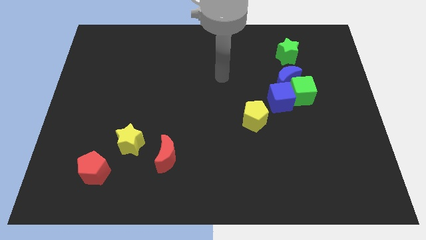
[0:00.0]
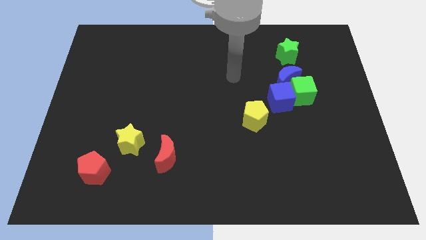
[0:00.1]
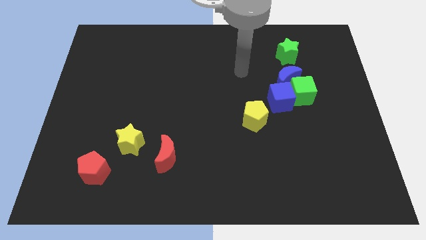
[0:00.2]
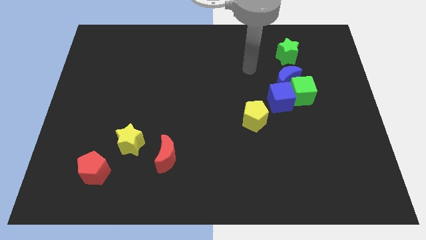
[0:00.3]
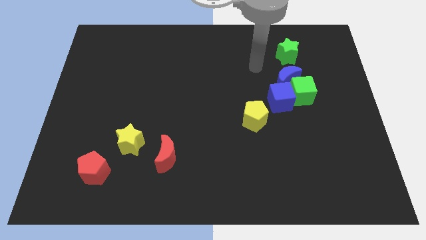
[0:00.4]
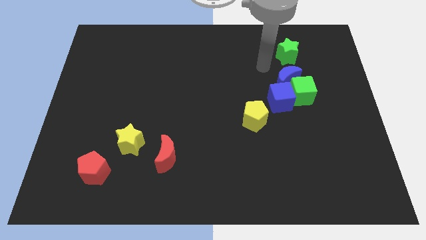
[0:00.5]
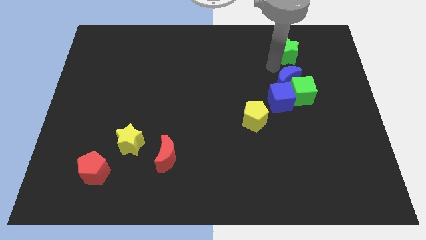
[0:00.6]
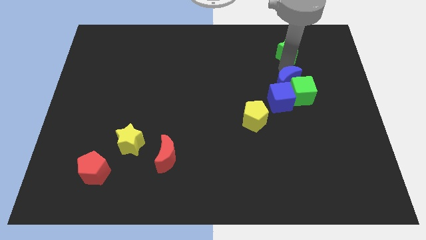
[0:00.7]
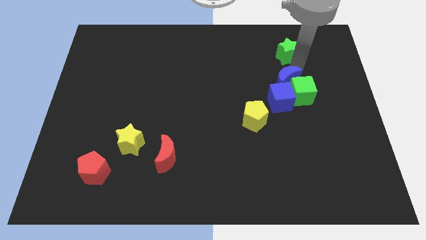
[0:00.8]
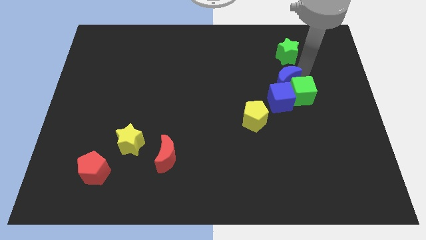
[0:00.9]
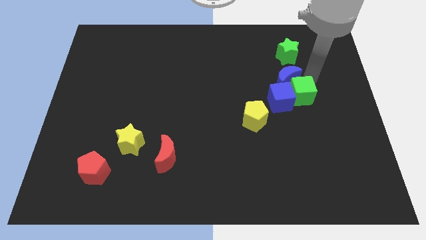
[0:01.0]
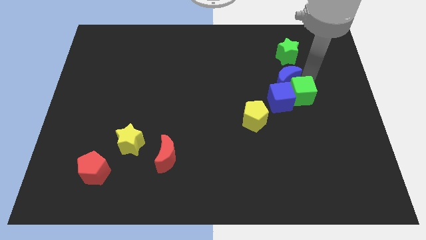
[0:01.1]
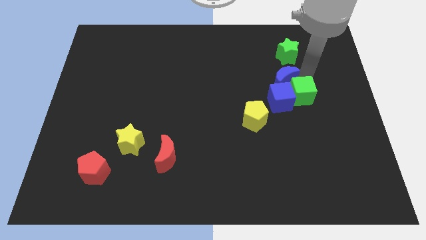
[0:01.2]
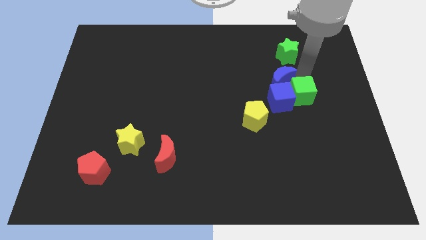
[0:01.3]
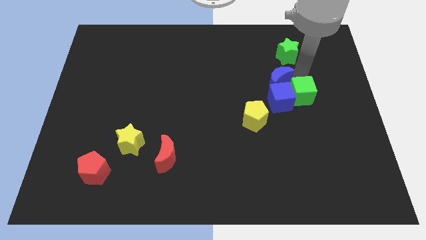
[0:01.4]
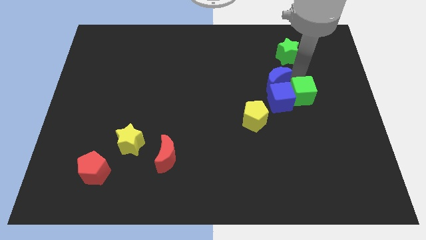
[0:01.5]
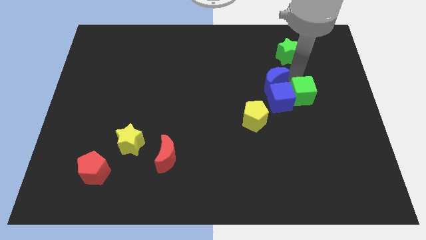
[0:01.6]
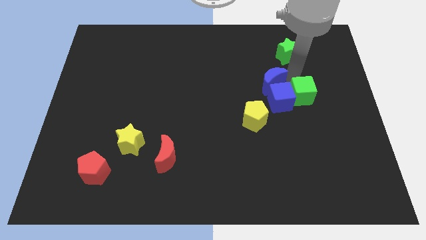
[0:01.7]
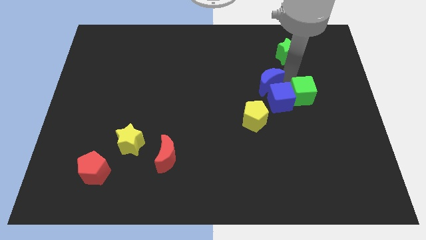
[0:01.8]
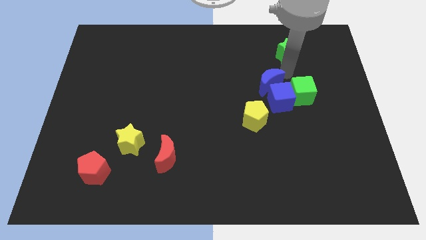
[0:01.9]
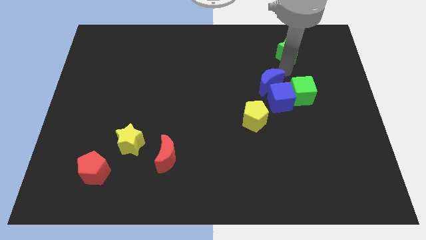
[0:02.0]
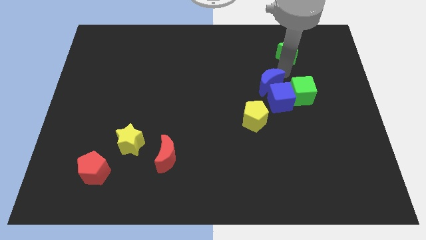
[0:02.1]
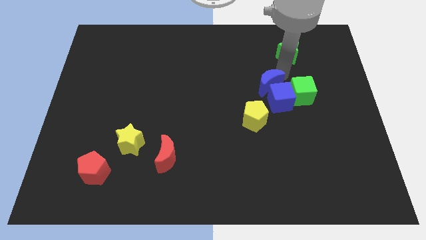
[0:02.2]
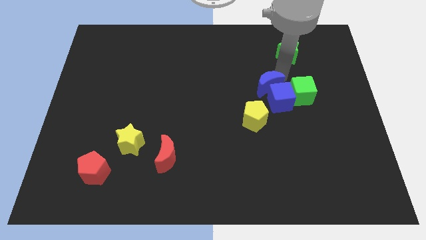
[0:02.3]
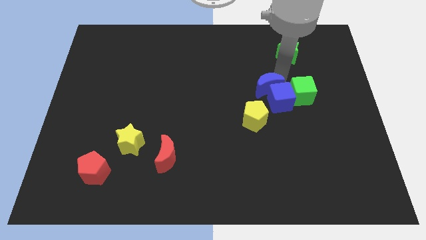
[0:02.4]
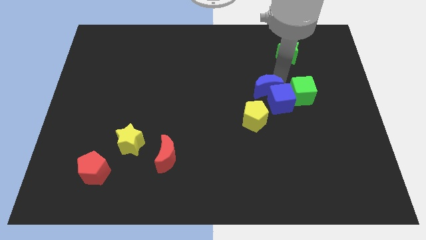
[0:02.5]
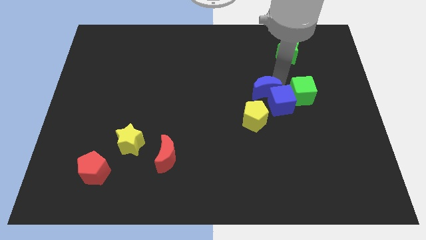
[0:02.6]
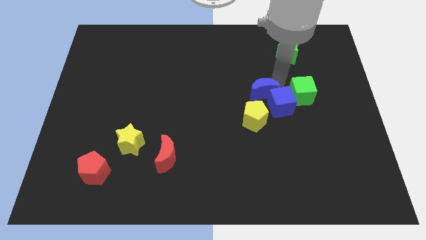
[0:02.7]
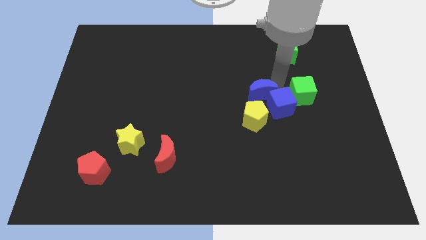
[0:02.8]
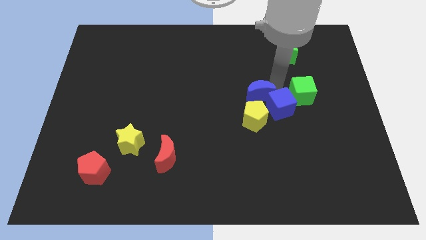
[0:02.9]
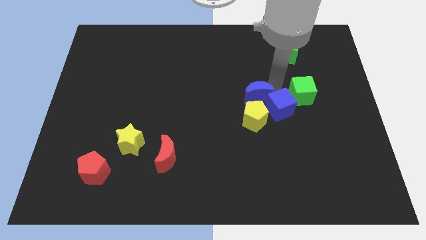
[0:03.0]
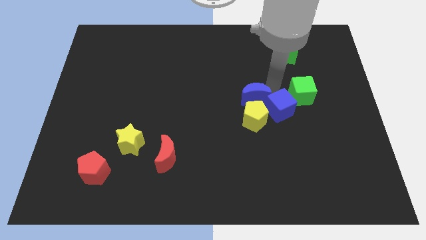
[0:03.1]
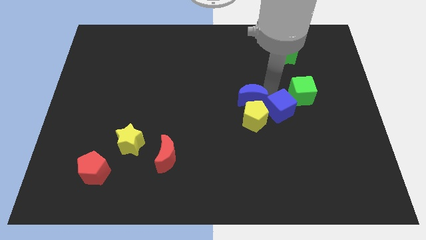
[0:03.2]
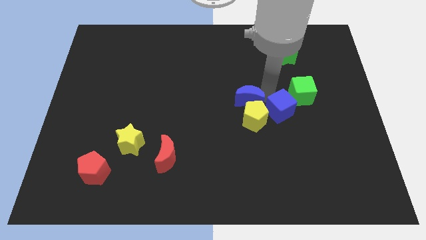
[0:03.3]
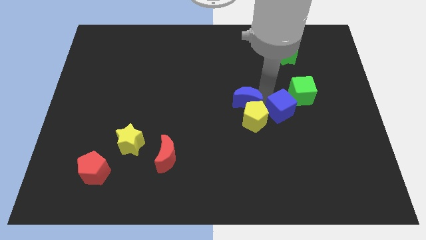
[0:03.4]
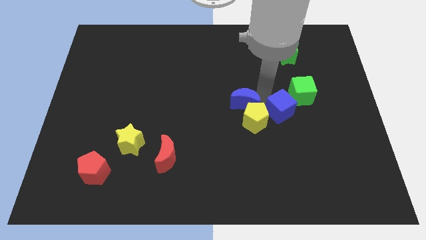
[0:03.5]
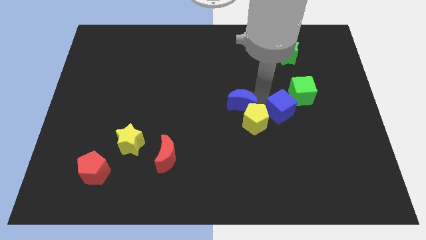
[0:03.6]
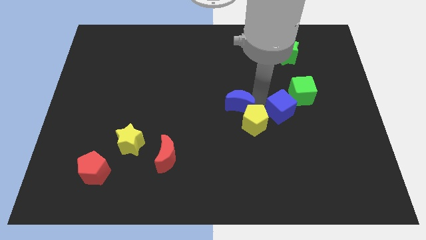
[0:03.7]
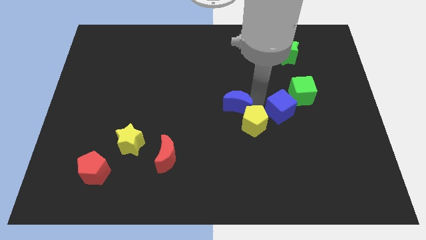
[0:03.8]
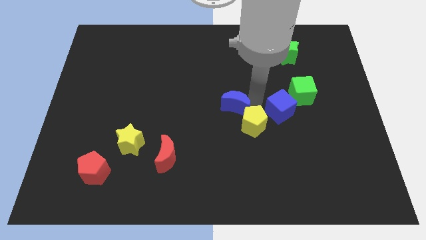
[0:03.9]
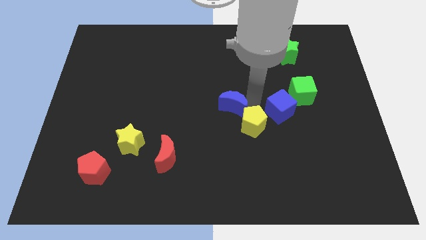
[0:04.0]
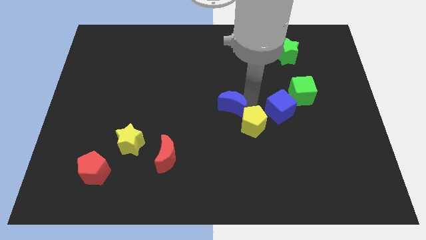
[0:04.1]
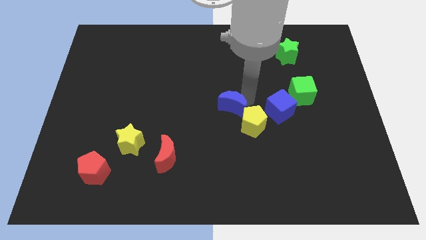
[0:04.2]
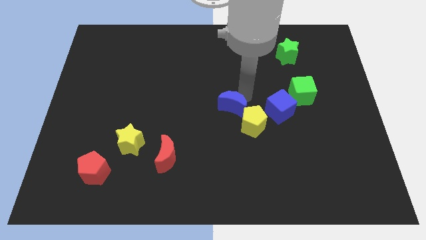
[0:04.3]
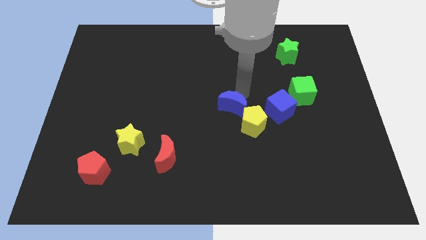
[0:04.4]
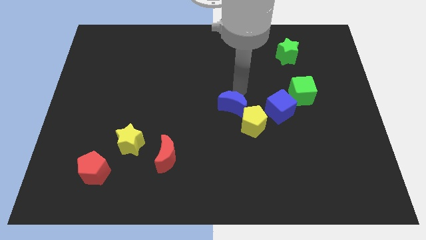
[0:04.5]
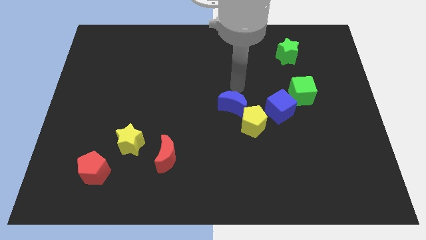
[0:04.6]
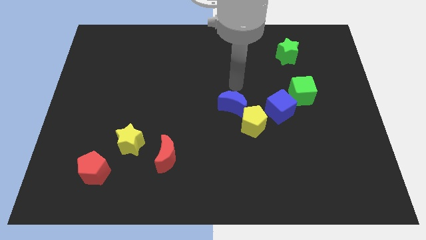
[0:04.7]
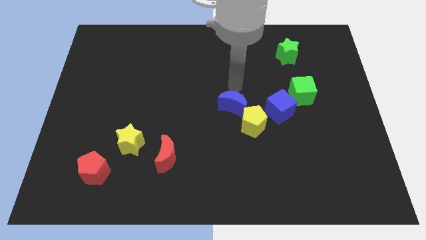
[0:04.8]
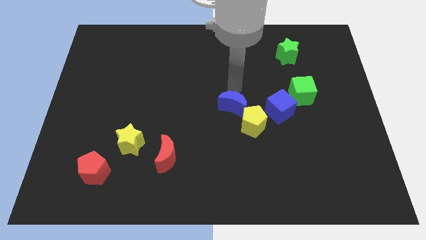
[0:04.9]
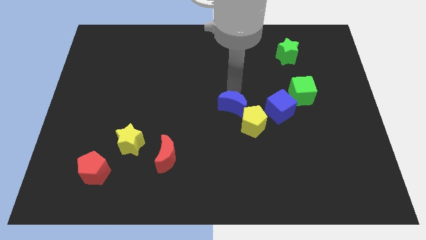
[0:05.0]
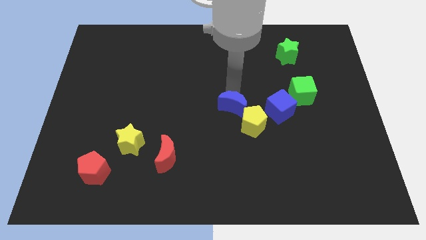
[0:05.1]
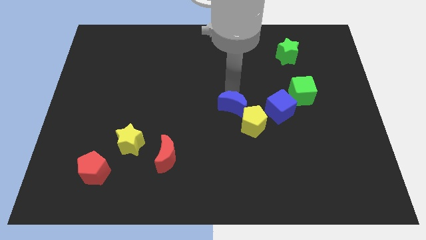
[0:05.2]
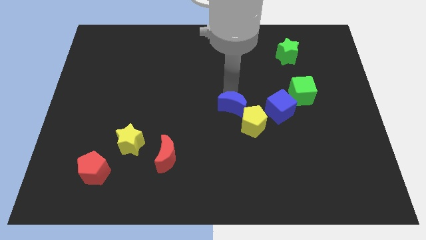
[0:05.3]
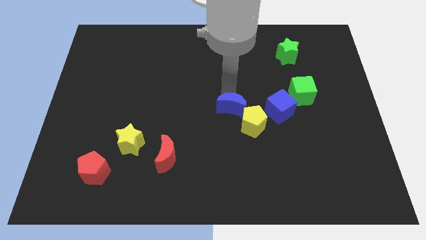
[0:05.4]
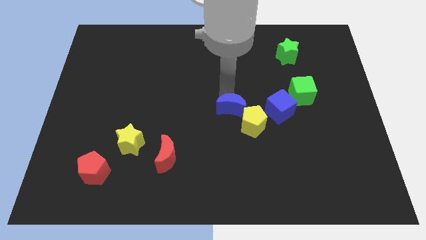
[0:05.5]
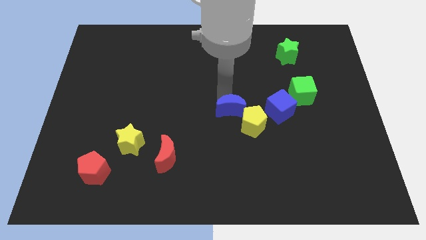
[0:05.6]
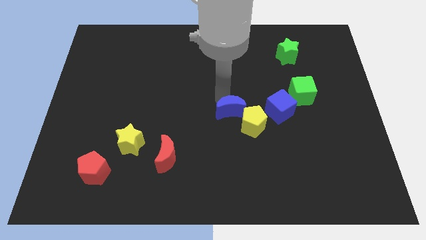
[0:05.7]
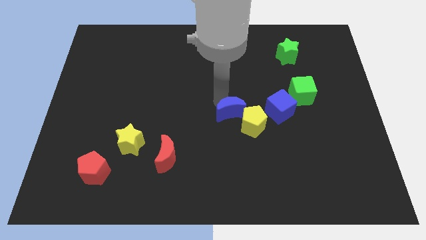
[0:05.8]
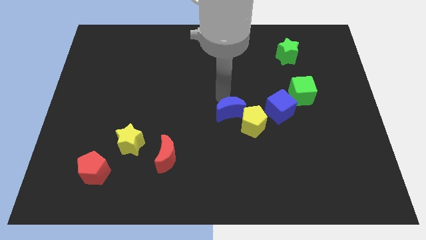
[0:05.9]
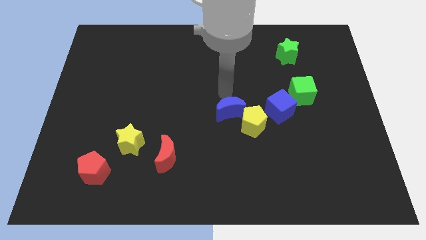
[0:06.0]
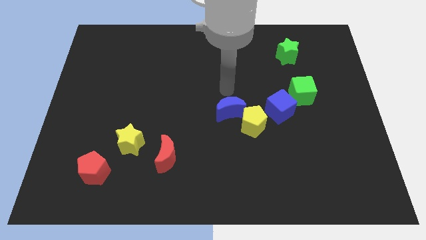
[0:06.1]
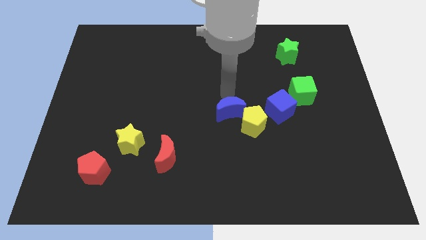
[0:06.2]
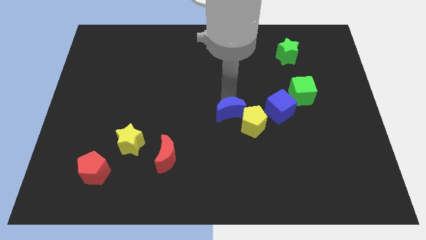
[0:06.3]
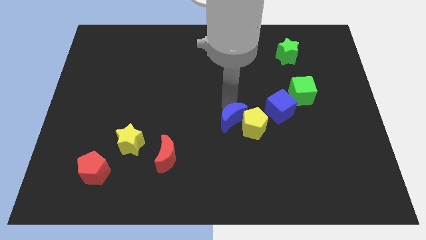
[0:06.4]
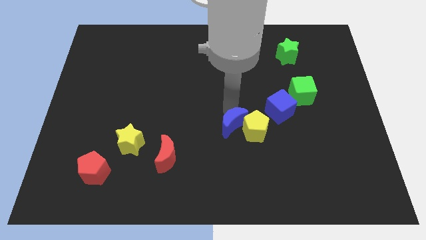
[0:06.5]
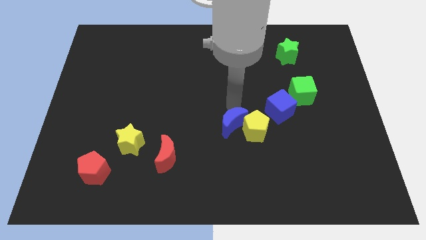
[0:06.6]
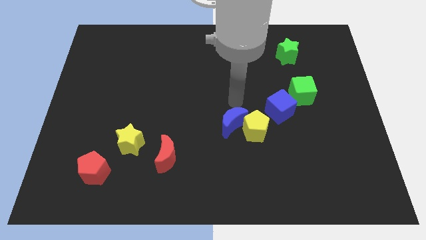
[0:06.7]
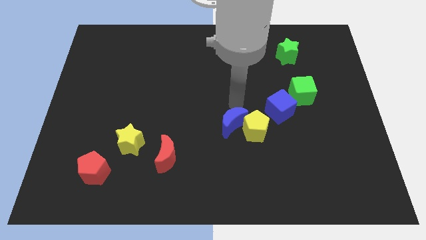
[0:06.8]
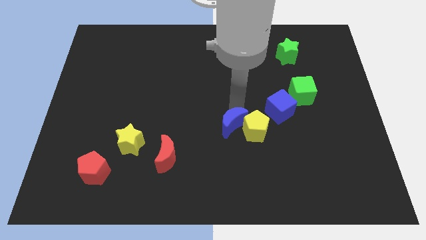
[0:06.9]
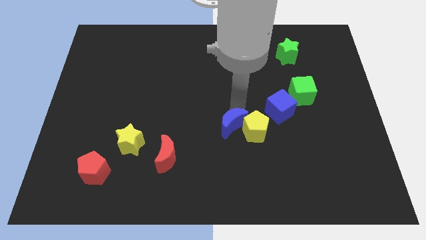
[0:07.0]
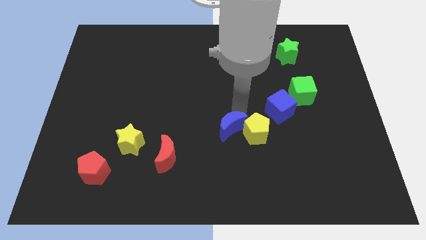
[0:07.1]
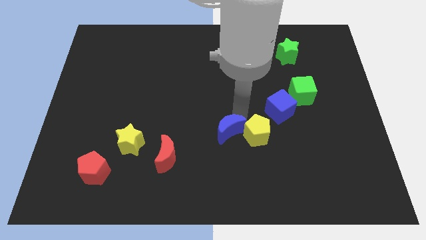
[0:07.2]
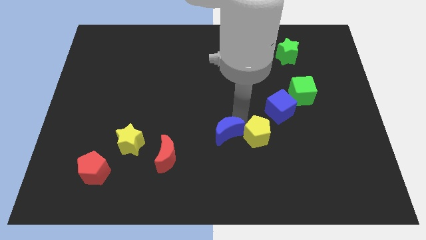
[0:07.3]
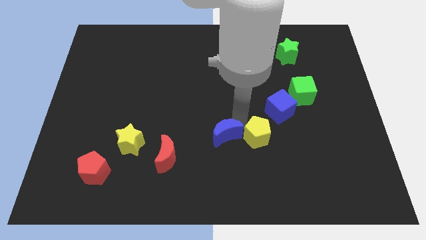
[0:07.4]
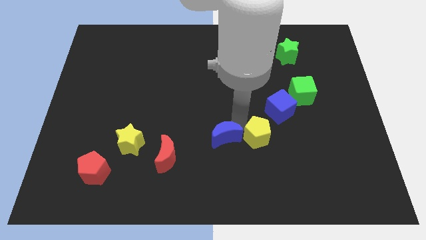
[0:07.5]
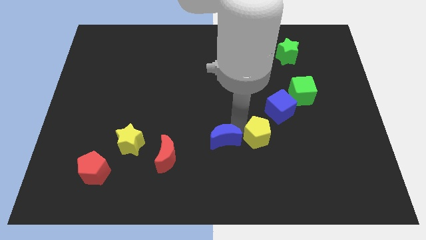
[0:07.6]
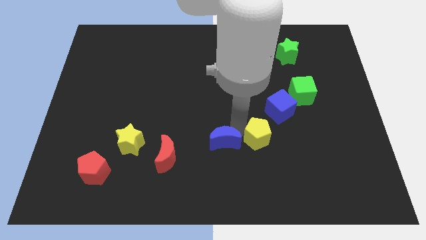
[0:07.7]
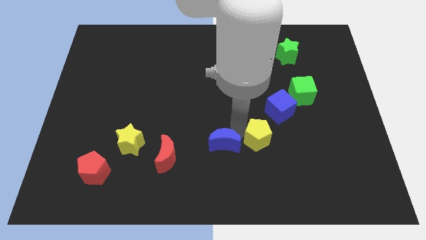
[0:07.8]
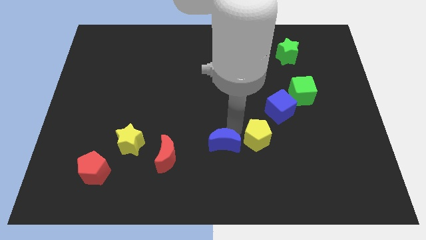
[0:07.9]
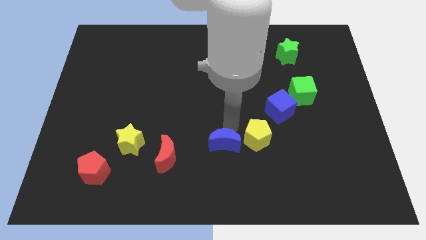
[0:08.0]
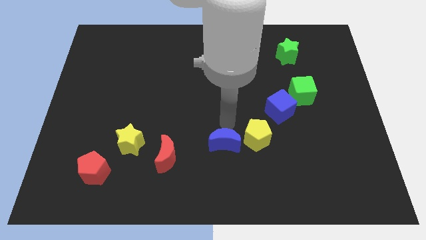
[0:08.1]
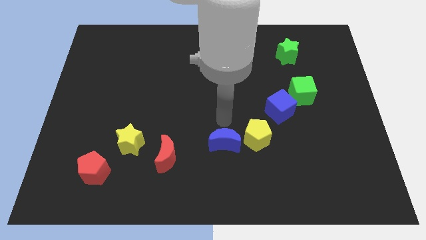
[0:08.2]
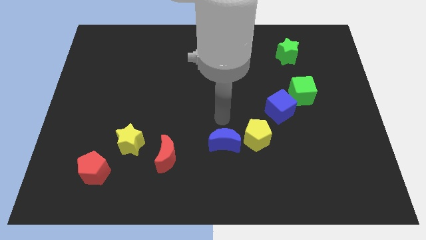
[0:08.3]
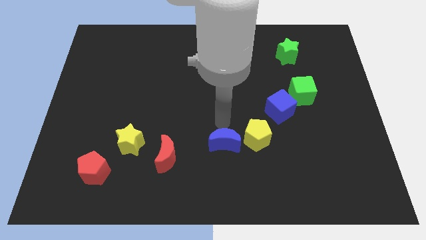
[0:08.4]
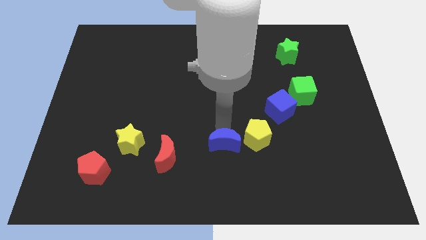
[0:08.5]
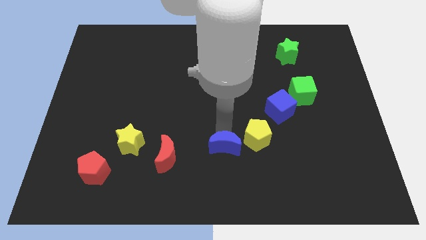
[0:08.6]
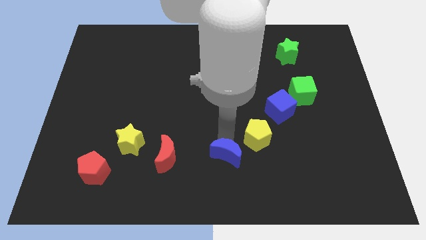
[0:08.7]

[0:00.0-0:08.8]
move the blue moon to the bottom side
